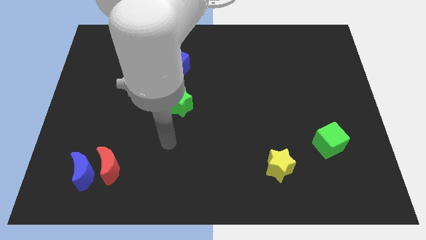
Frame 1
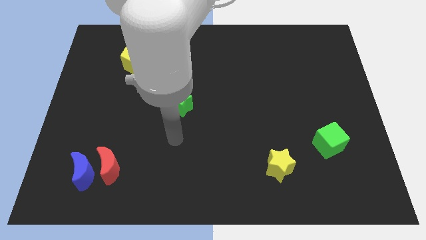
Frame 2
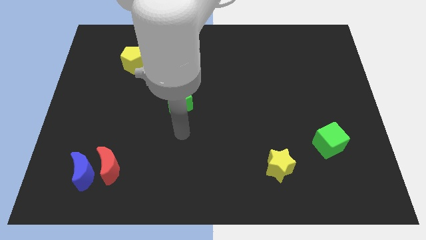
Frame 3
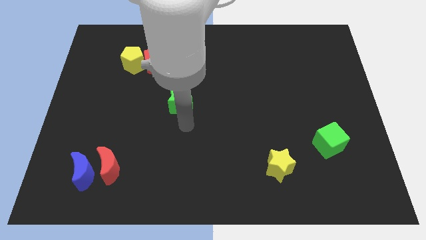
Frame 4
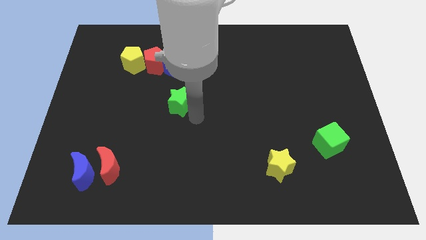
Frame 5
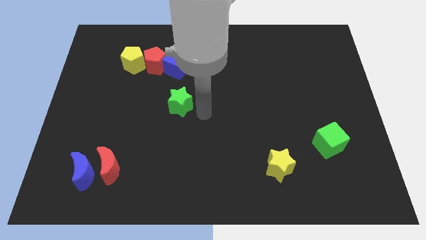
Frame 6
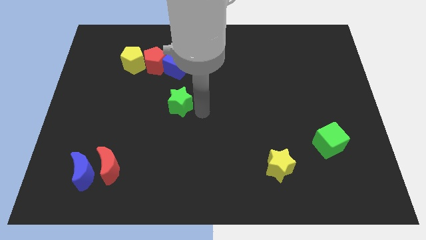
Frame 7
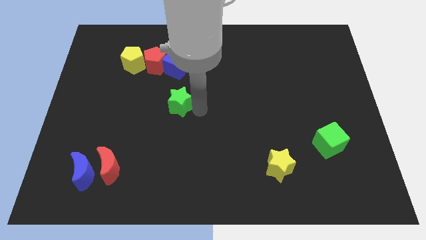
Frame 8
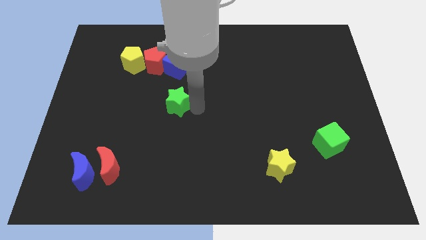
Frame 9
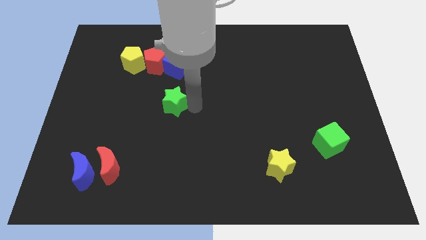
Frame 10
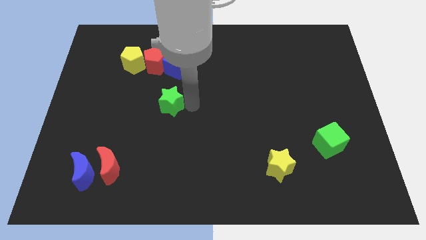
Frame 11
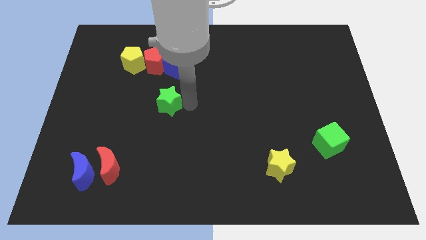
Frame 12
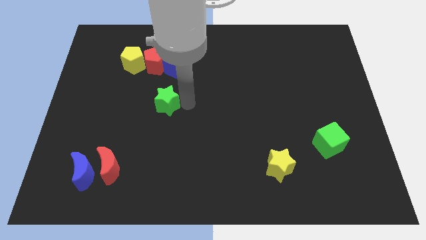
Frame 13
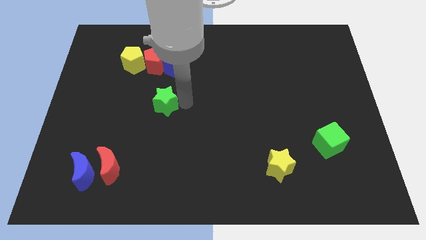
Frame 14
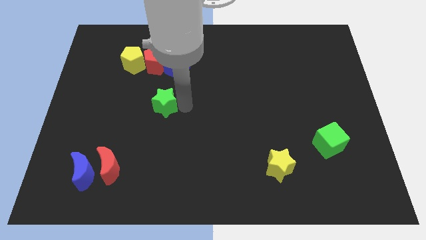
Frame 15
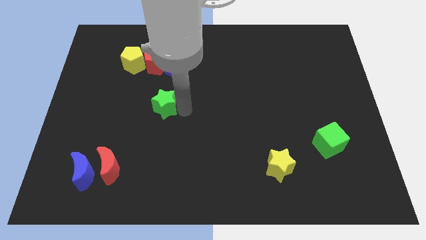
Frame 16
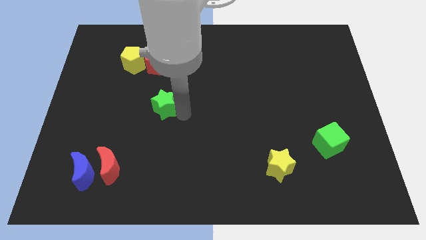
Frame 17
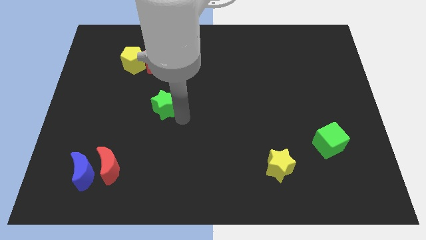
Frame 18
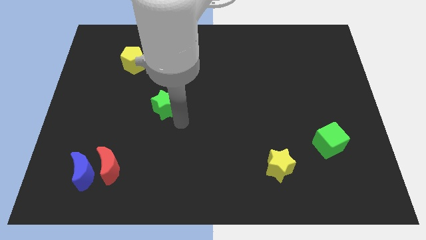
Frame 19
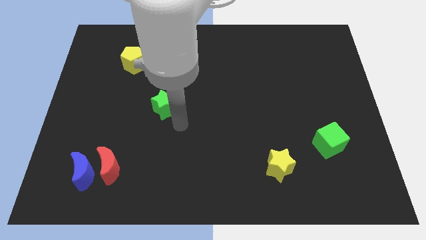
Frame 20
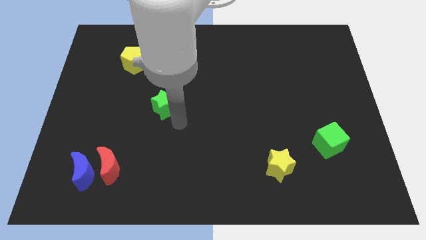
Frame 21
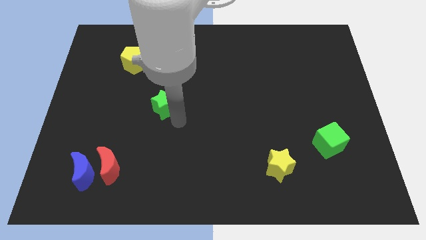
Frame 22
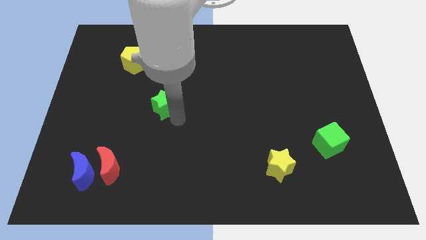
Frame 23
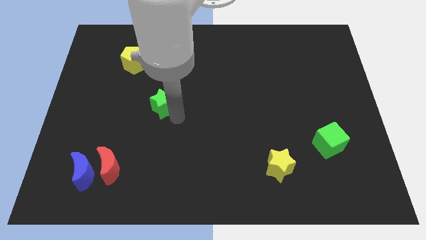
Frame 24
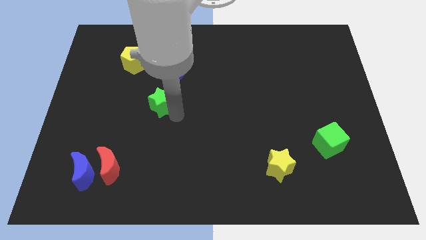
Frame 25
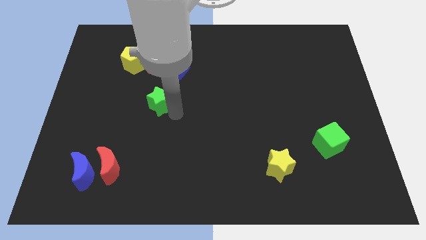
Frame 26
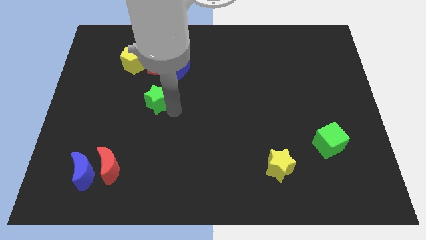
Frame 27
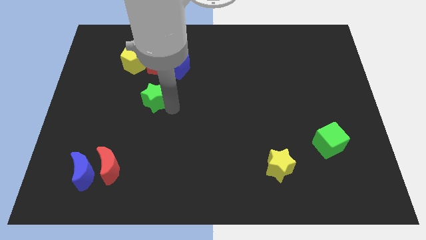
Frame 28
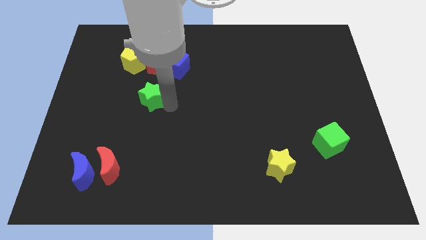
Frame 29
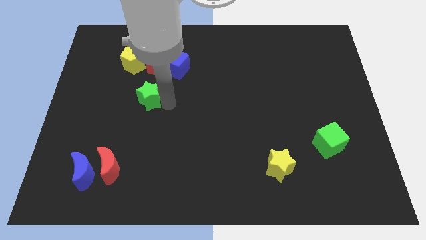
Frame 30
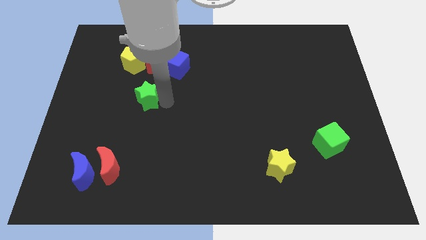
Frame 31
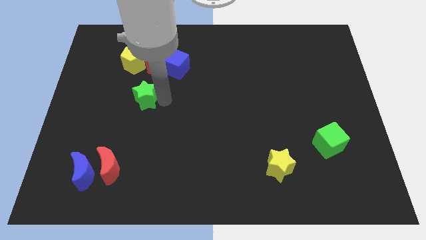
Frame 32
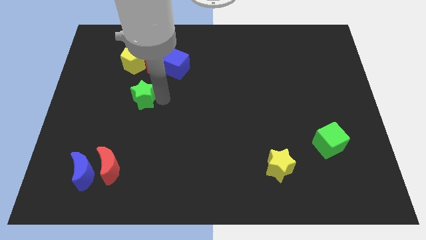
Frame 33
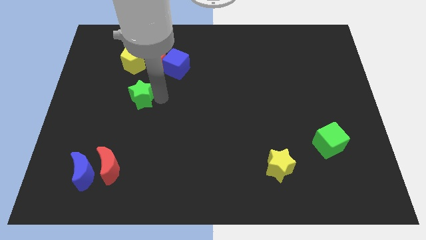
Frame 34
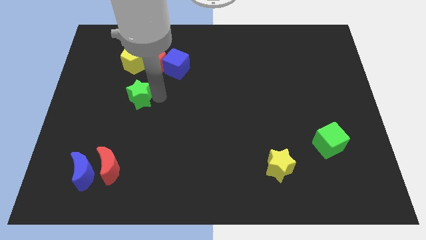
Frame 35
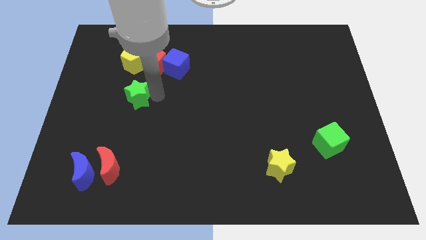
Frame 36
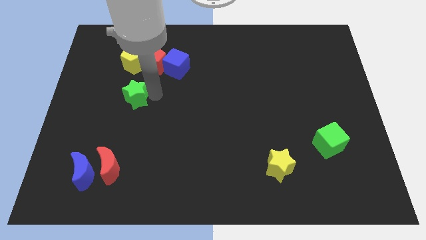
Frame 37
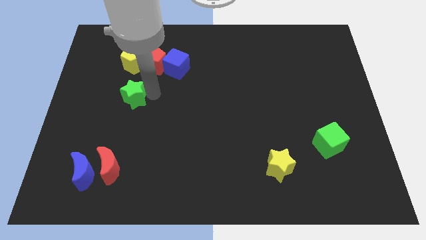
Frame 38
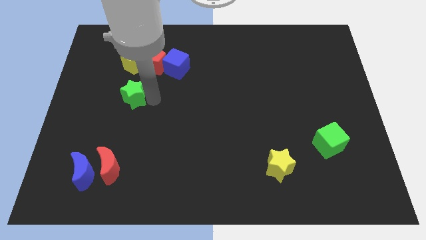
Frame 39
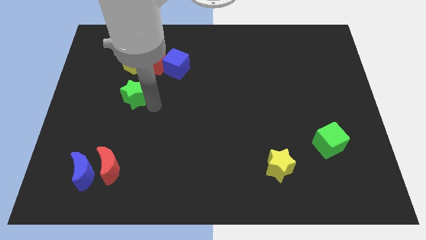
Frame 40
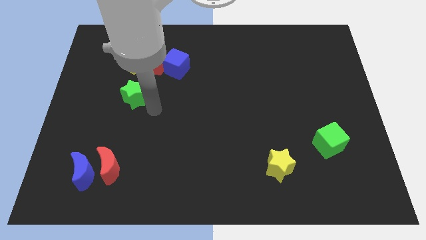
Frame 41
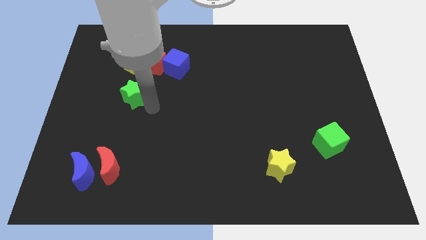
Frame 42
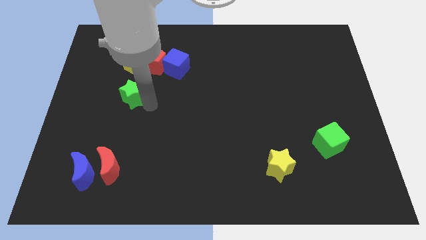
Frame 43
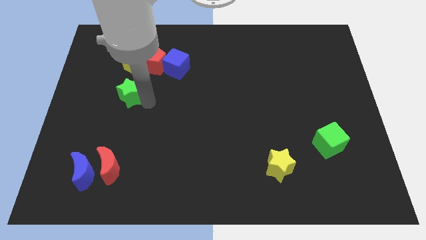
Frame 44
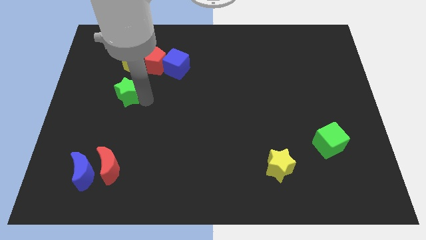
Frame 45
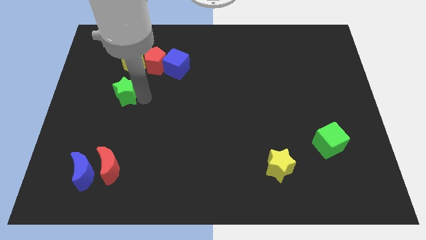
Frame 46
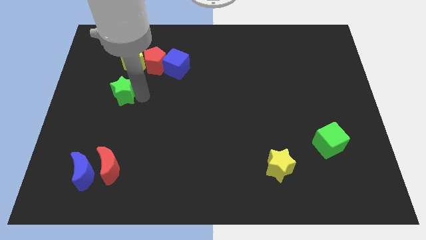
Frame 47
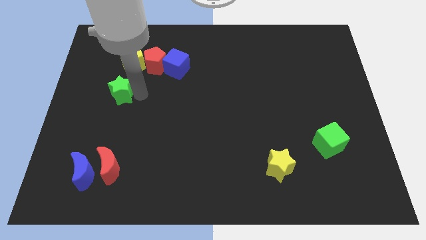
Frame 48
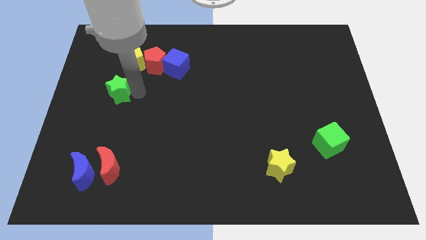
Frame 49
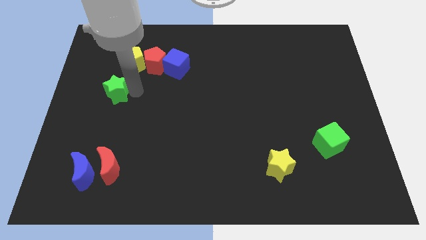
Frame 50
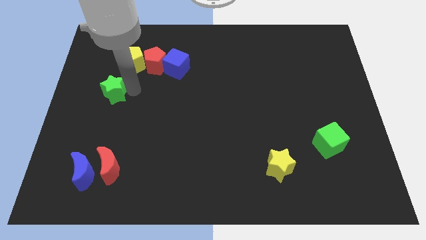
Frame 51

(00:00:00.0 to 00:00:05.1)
put the green star diagonally down and to the left of the yellow pentagon

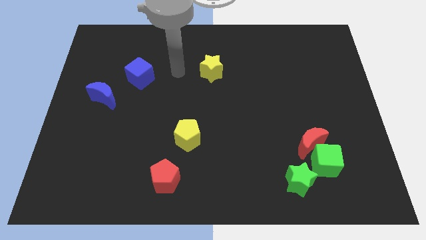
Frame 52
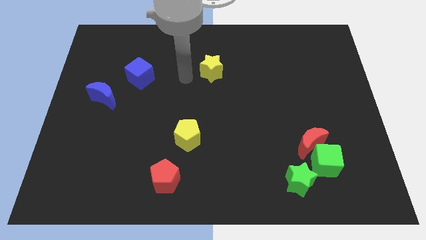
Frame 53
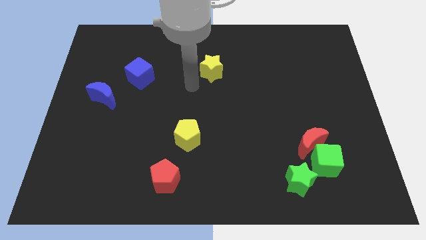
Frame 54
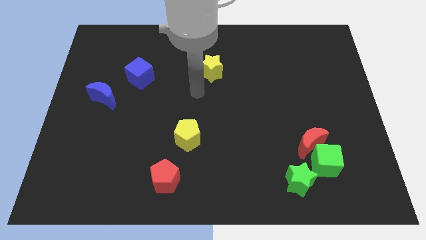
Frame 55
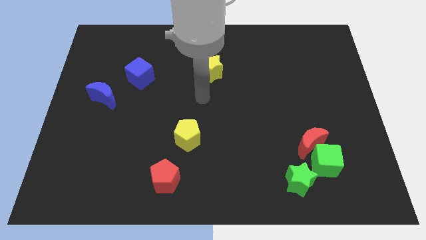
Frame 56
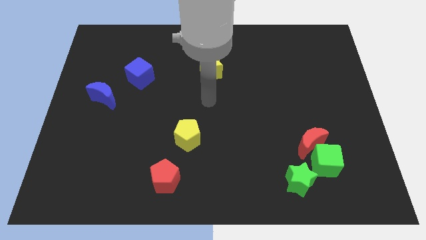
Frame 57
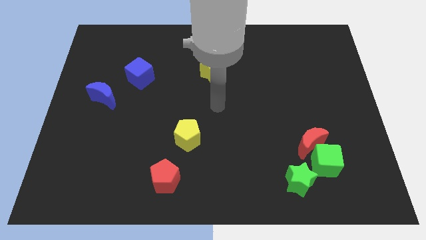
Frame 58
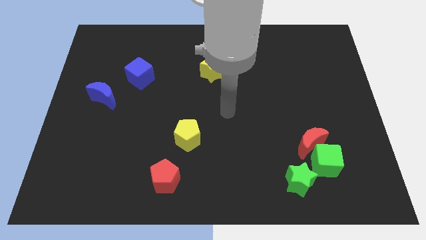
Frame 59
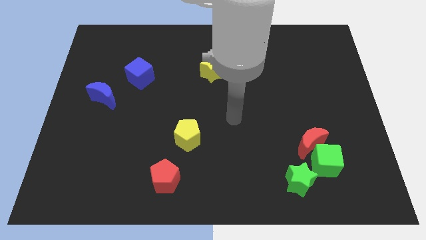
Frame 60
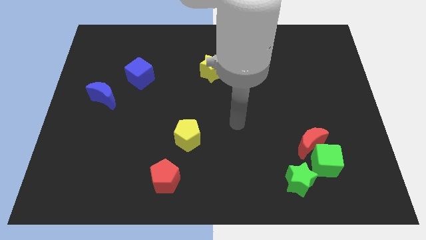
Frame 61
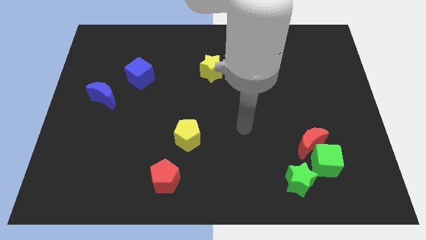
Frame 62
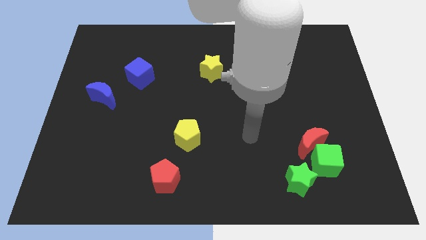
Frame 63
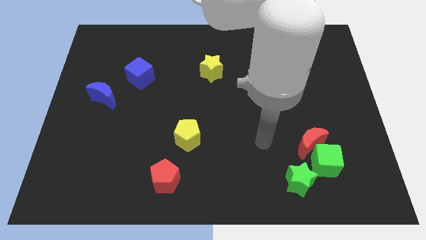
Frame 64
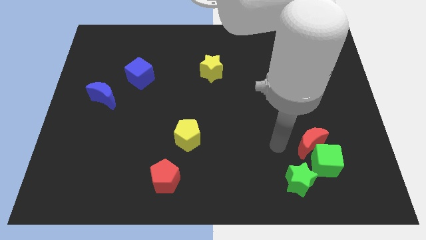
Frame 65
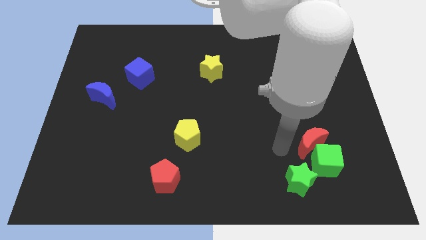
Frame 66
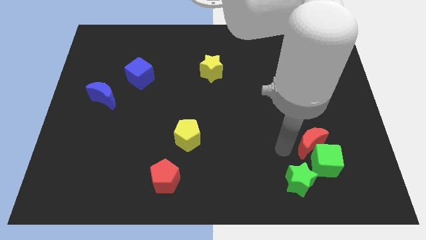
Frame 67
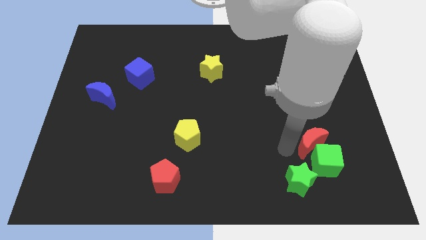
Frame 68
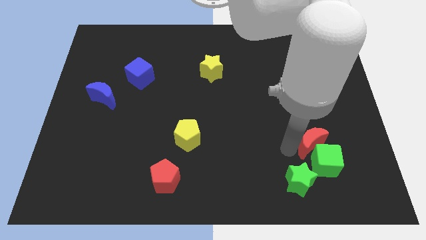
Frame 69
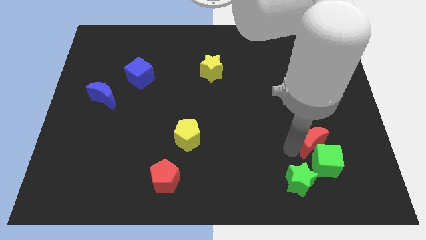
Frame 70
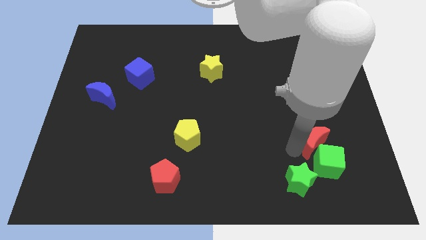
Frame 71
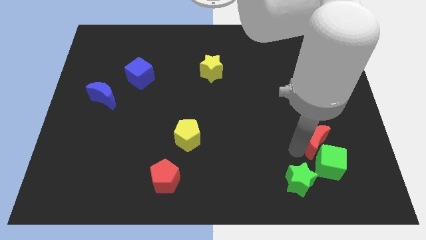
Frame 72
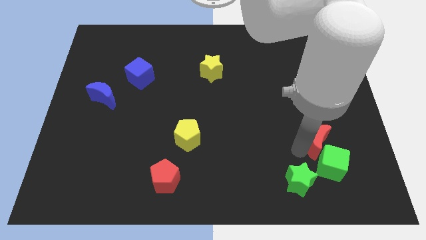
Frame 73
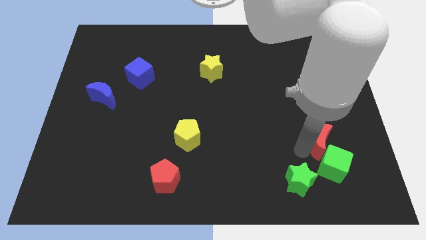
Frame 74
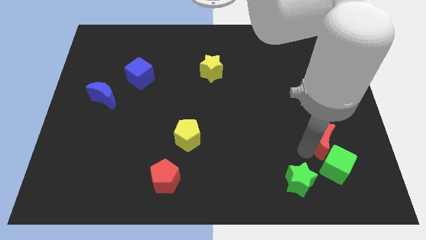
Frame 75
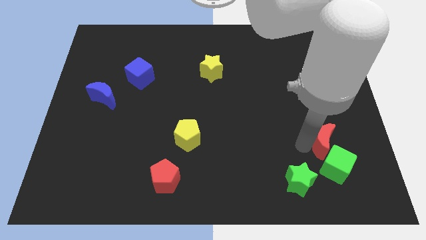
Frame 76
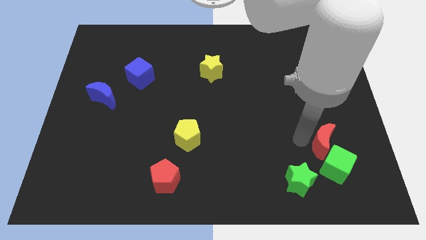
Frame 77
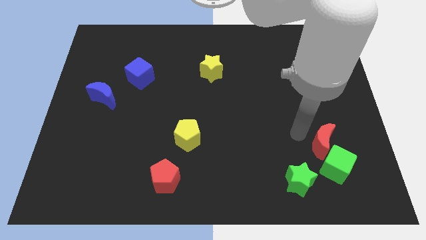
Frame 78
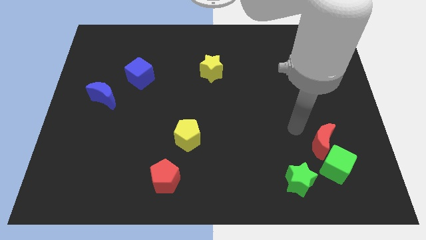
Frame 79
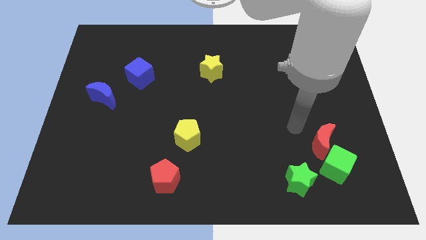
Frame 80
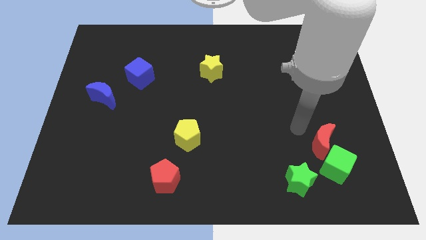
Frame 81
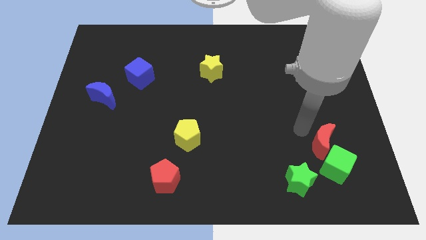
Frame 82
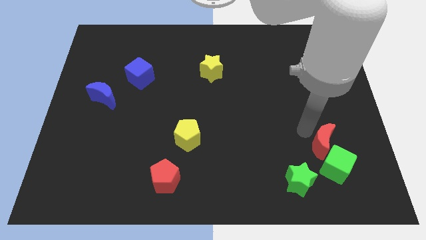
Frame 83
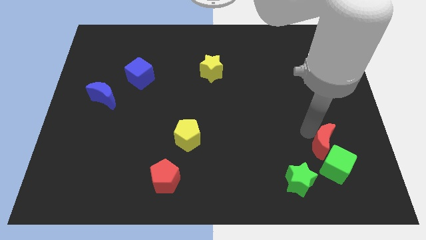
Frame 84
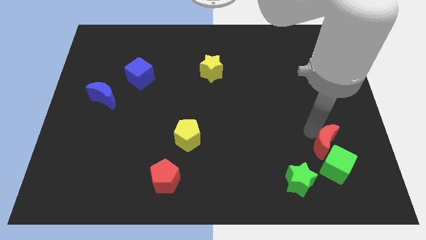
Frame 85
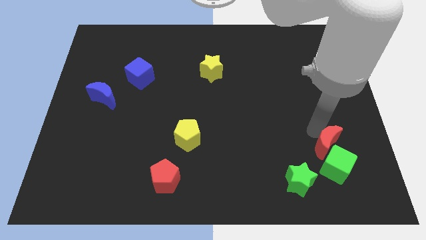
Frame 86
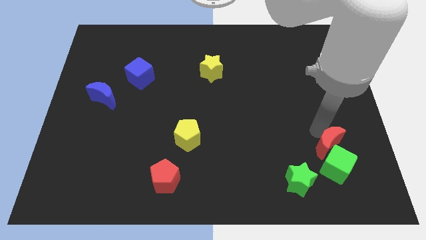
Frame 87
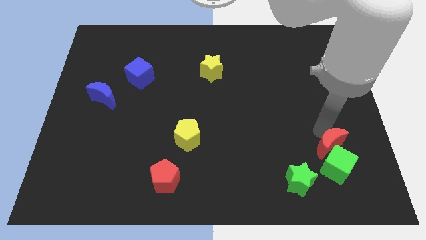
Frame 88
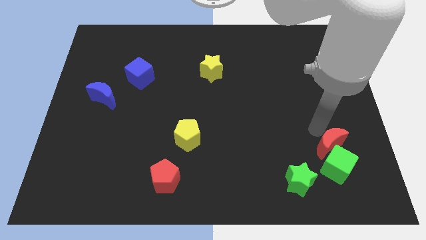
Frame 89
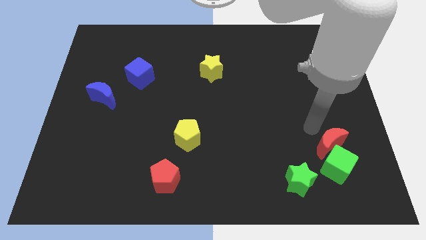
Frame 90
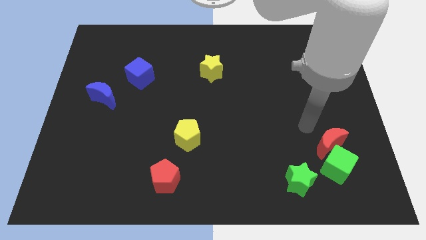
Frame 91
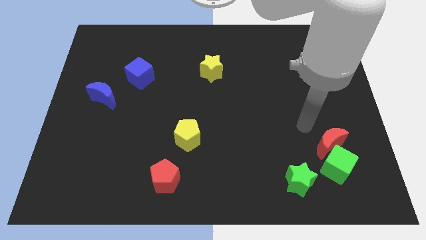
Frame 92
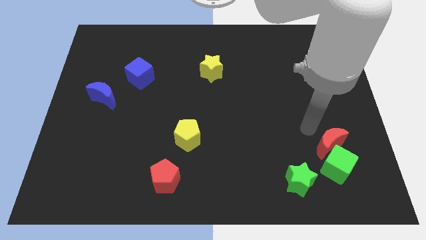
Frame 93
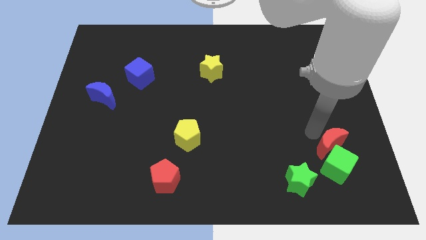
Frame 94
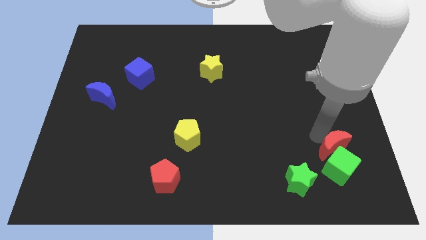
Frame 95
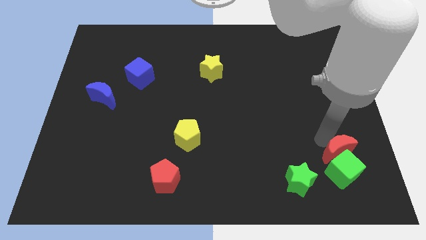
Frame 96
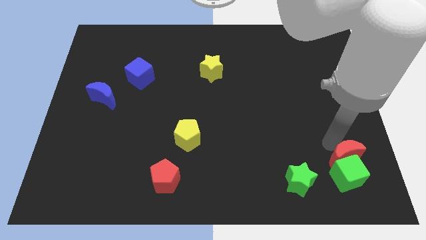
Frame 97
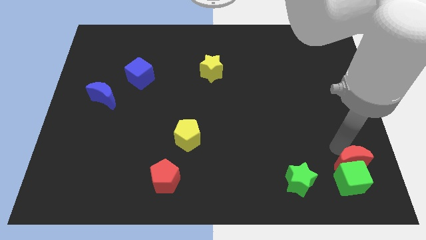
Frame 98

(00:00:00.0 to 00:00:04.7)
push the red moon right of the green star
